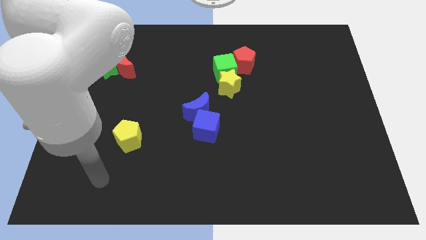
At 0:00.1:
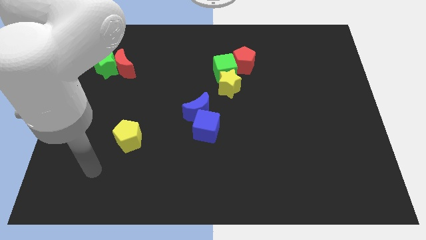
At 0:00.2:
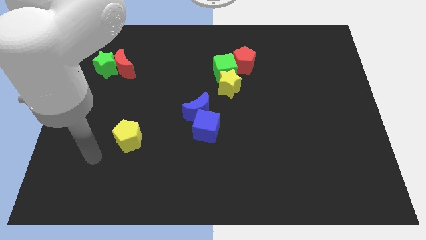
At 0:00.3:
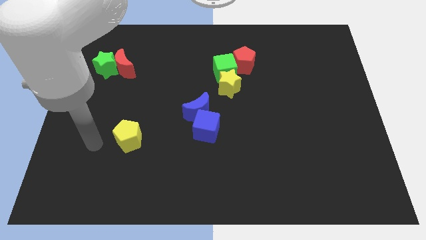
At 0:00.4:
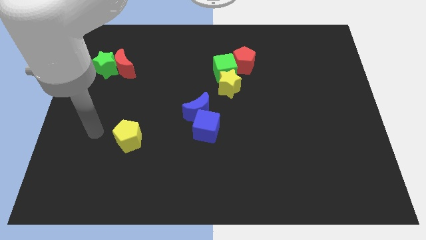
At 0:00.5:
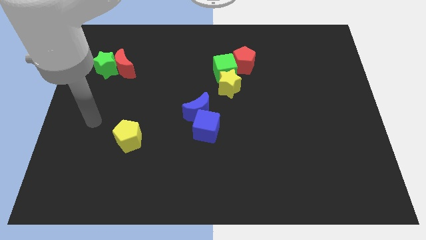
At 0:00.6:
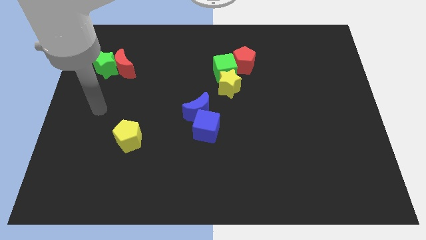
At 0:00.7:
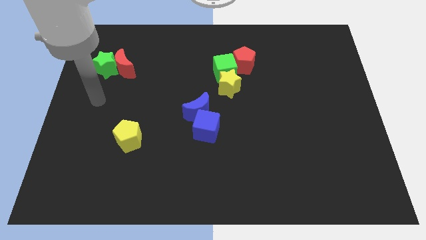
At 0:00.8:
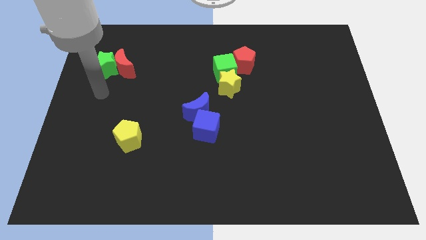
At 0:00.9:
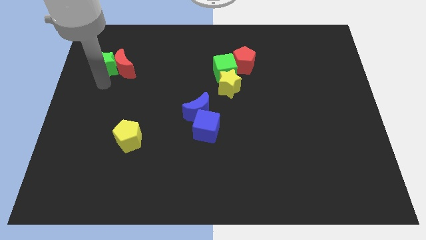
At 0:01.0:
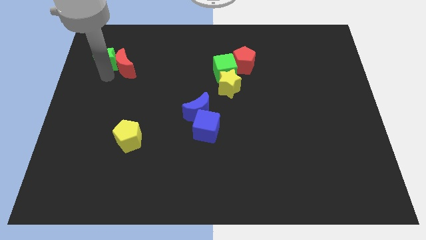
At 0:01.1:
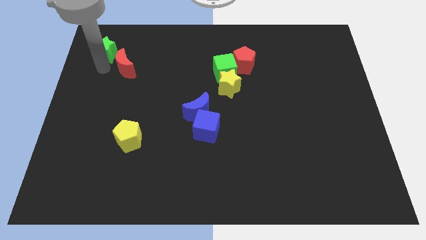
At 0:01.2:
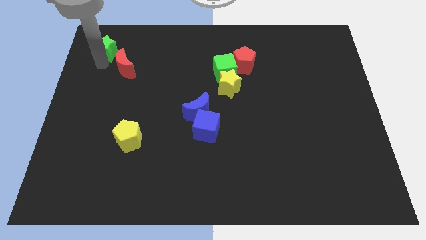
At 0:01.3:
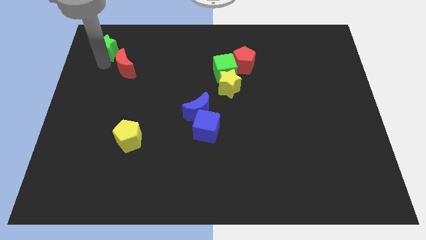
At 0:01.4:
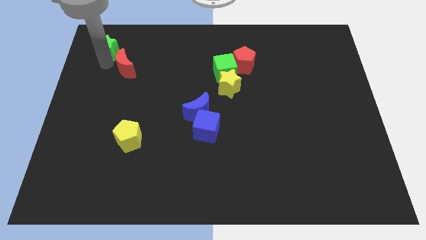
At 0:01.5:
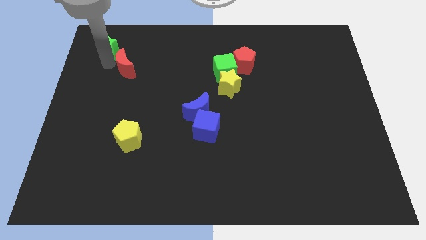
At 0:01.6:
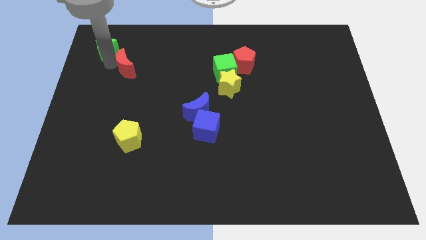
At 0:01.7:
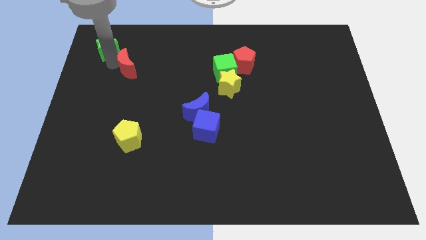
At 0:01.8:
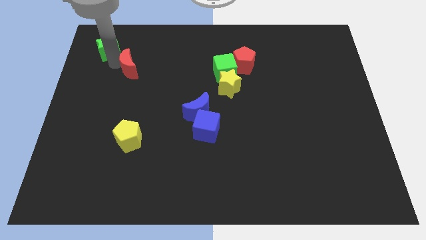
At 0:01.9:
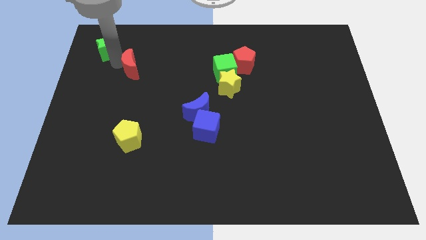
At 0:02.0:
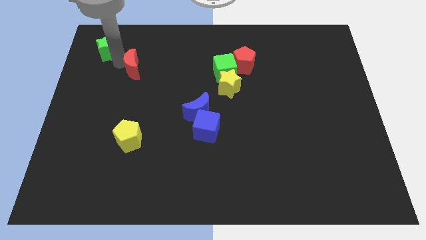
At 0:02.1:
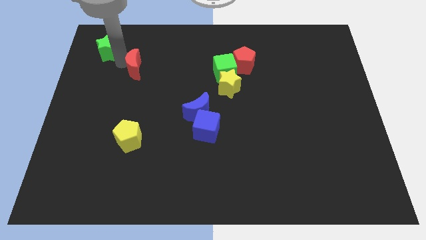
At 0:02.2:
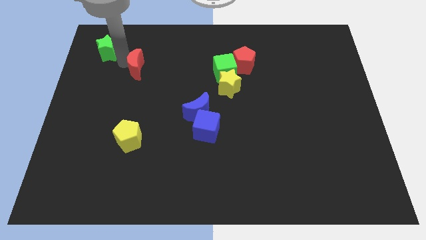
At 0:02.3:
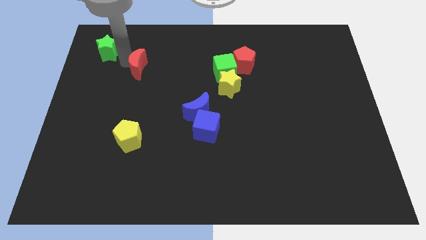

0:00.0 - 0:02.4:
move the red moon away from the green star

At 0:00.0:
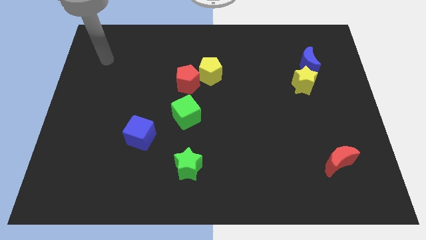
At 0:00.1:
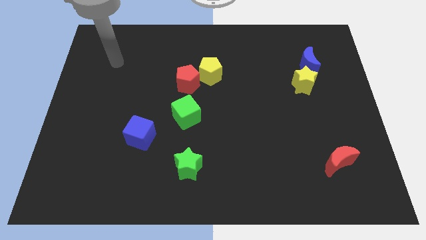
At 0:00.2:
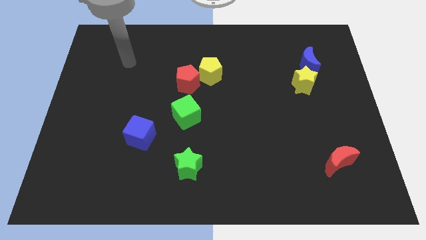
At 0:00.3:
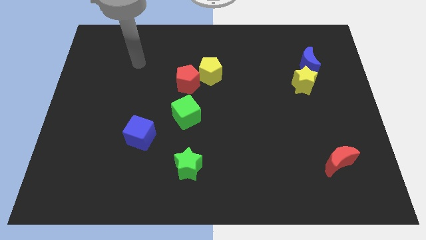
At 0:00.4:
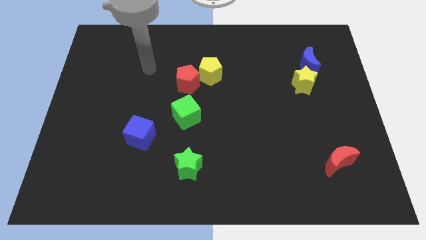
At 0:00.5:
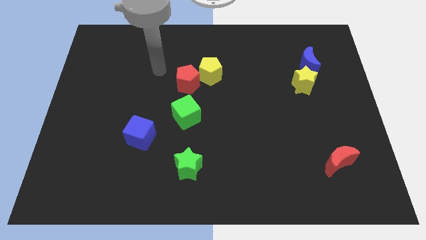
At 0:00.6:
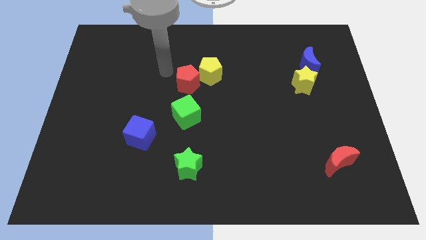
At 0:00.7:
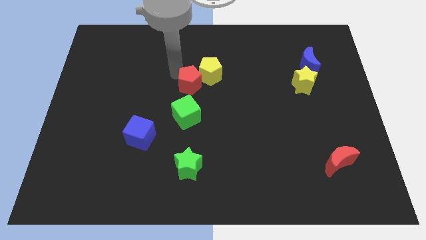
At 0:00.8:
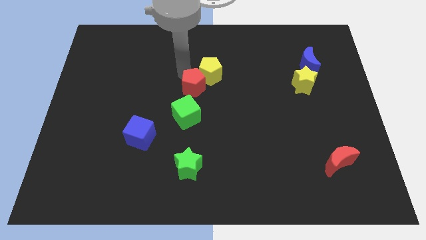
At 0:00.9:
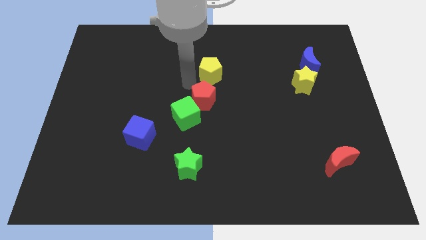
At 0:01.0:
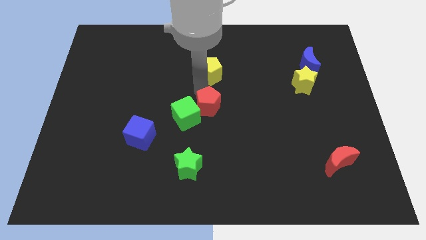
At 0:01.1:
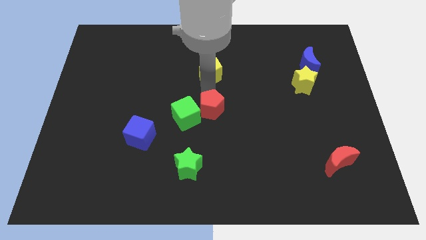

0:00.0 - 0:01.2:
separate the yellow pentagon from the red pentagon
